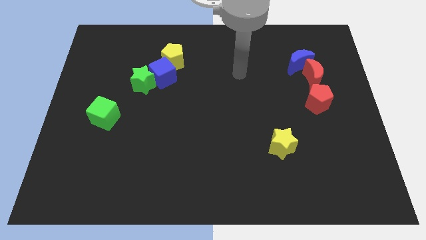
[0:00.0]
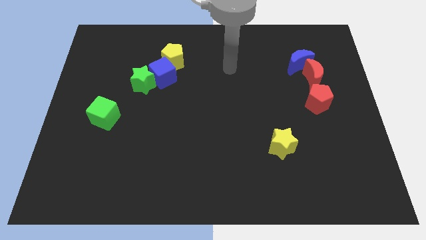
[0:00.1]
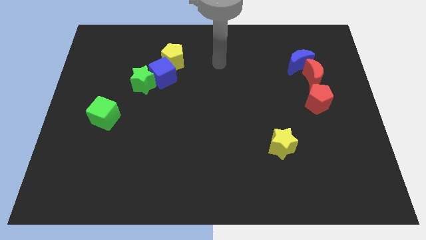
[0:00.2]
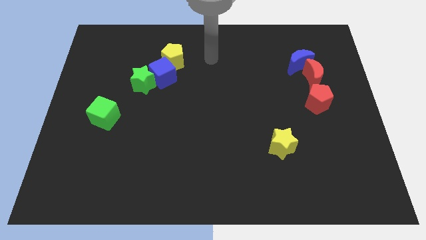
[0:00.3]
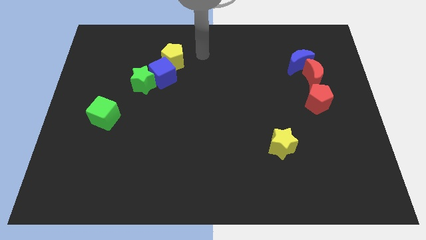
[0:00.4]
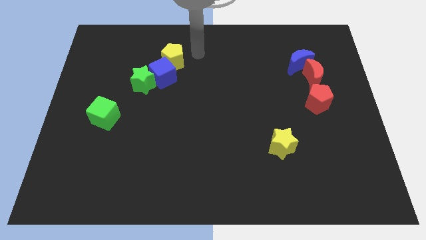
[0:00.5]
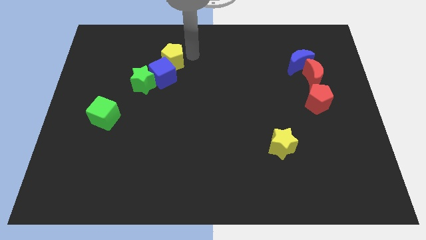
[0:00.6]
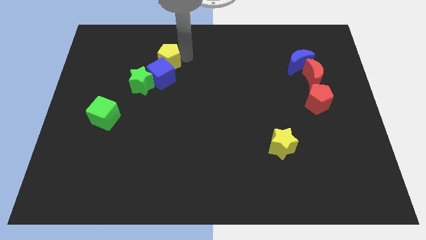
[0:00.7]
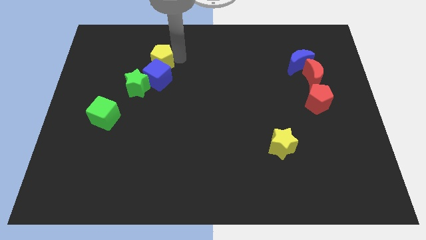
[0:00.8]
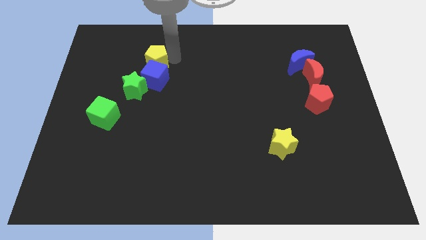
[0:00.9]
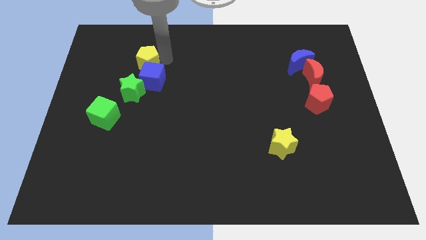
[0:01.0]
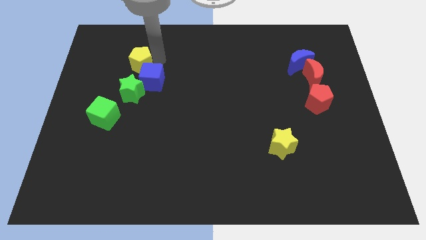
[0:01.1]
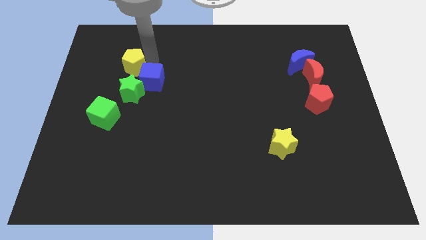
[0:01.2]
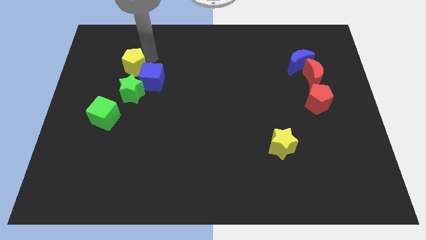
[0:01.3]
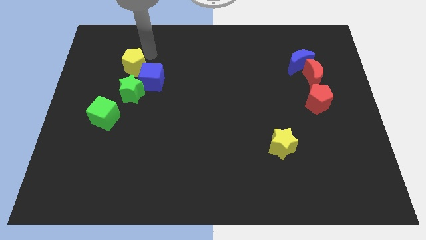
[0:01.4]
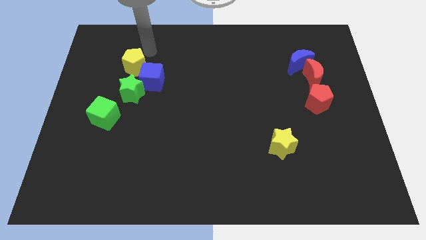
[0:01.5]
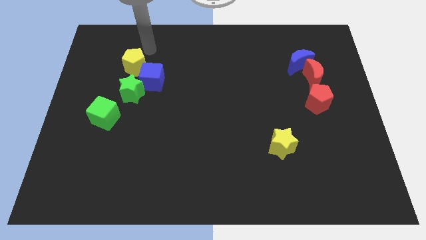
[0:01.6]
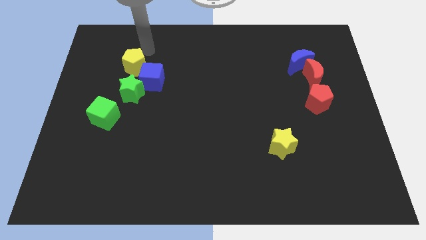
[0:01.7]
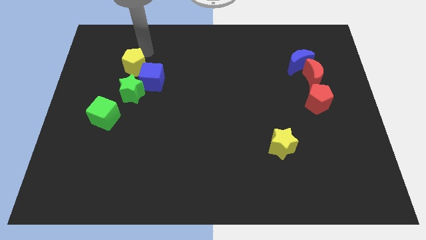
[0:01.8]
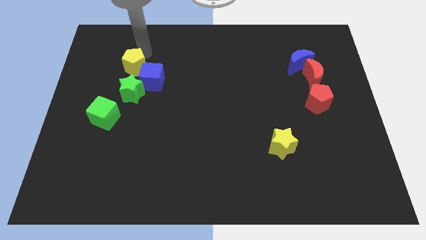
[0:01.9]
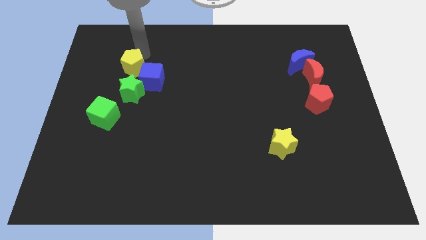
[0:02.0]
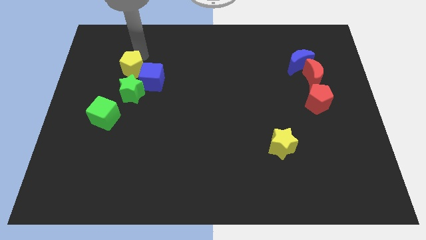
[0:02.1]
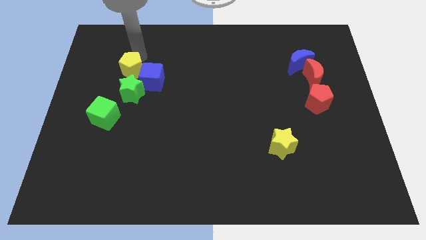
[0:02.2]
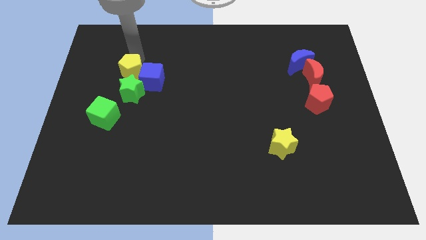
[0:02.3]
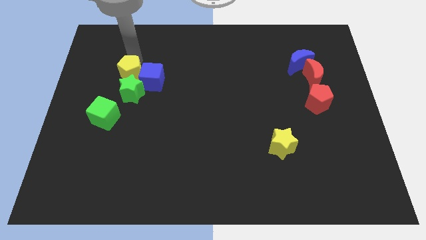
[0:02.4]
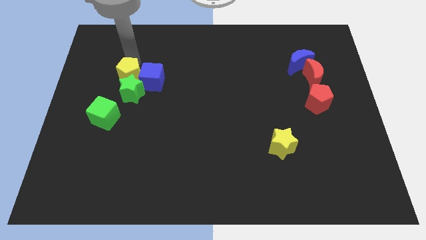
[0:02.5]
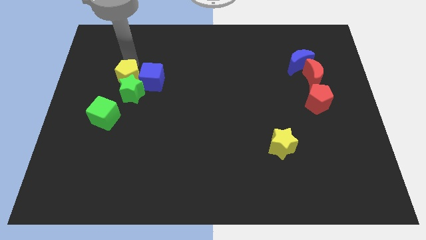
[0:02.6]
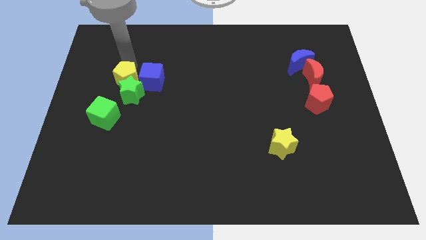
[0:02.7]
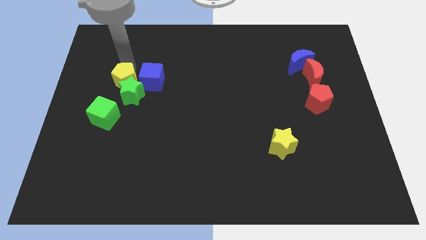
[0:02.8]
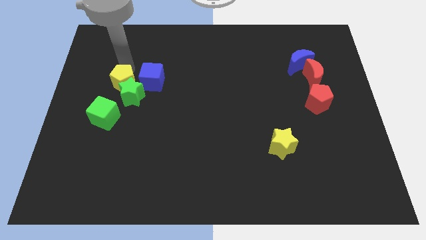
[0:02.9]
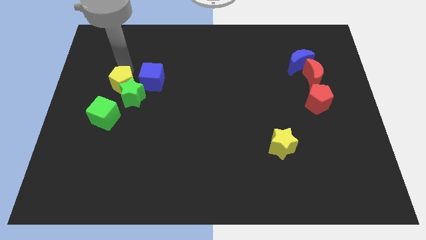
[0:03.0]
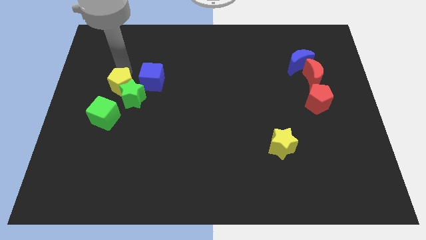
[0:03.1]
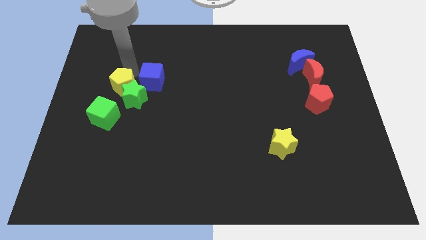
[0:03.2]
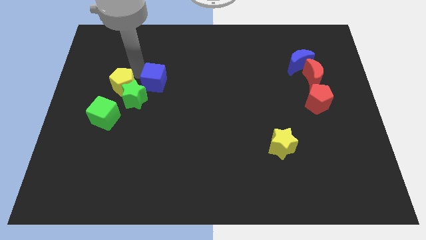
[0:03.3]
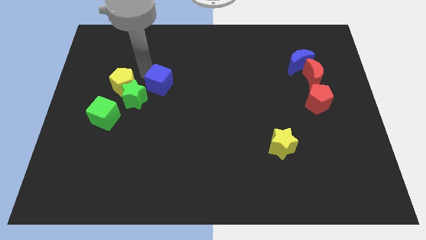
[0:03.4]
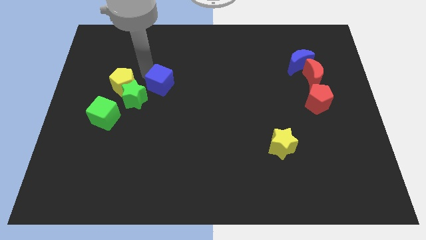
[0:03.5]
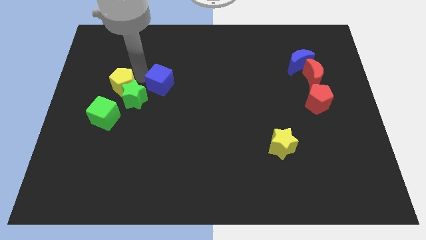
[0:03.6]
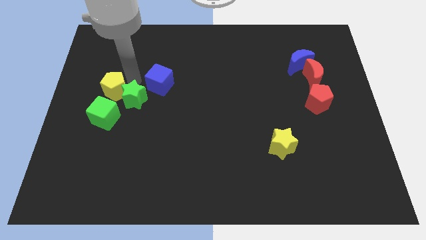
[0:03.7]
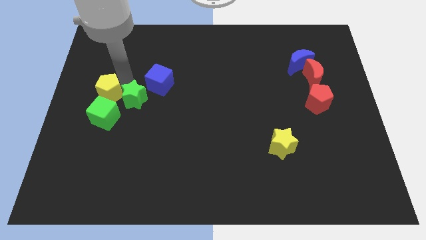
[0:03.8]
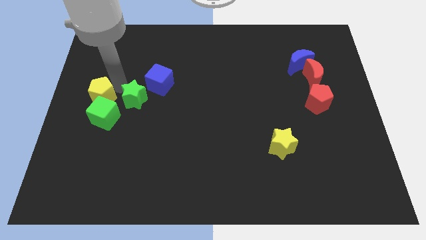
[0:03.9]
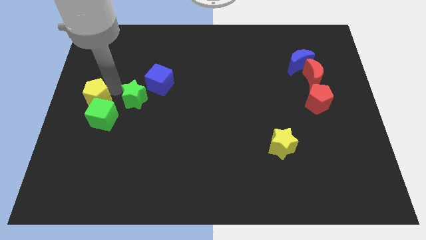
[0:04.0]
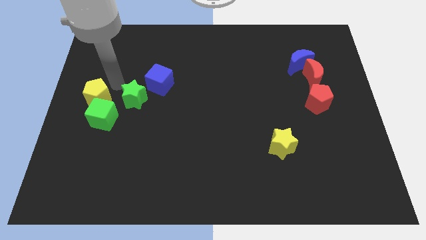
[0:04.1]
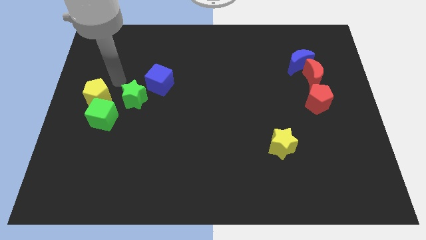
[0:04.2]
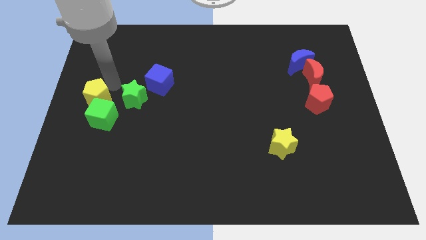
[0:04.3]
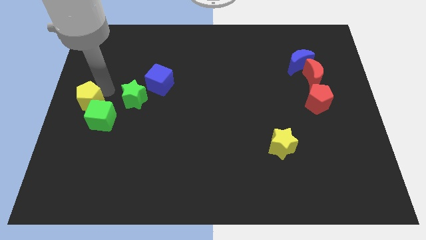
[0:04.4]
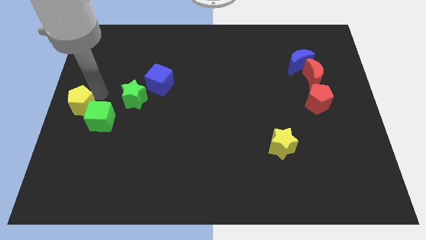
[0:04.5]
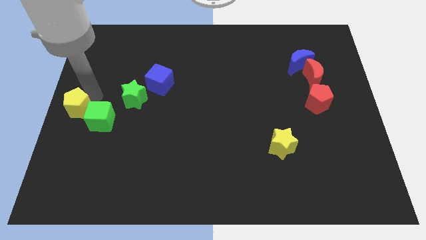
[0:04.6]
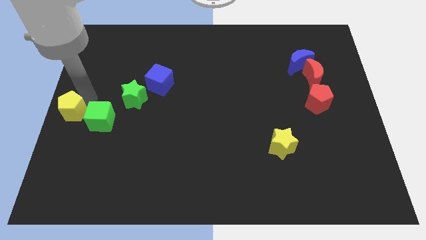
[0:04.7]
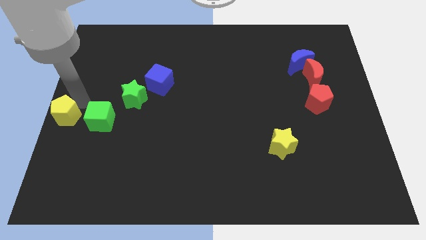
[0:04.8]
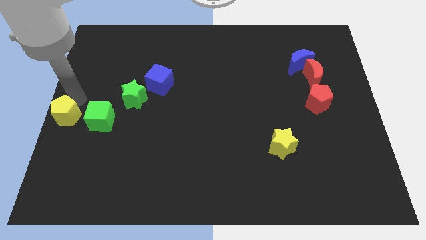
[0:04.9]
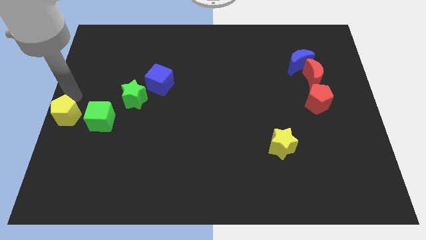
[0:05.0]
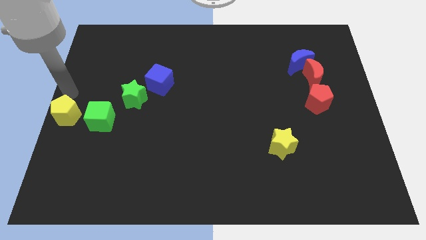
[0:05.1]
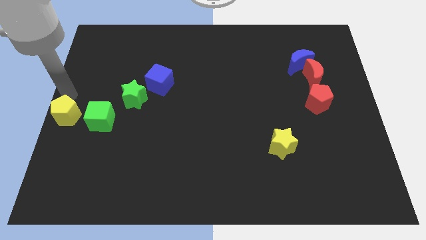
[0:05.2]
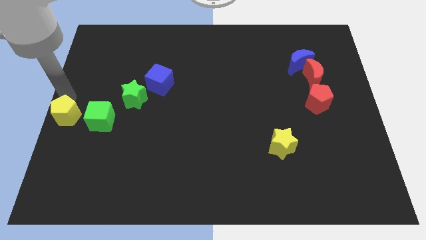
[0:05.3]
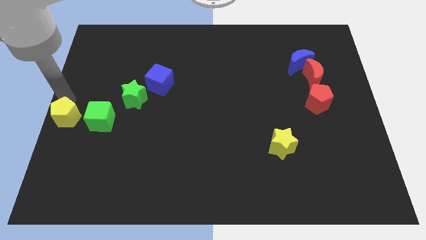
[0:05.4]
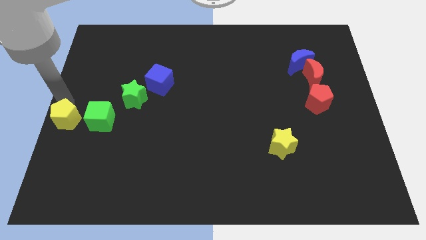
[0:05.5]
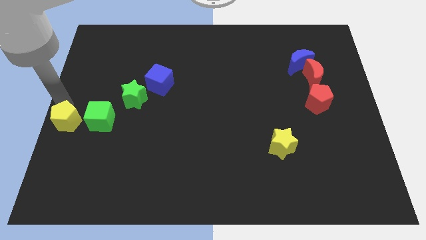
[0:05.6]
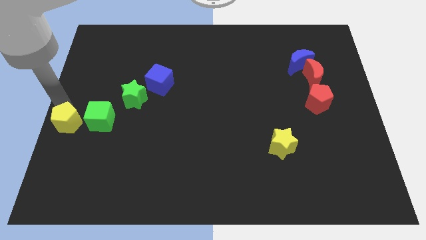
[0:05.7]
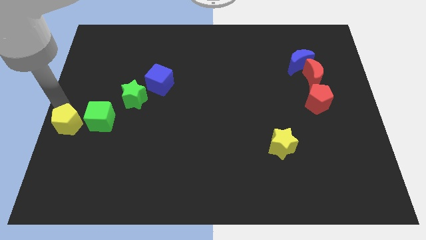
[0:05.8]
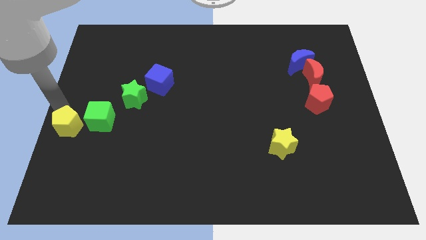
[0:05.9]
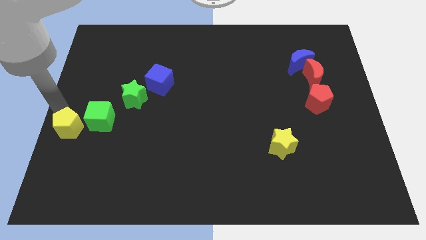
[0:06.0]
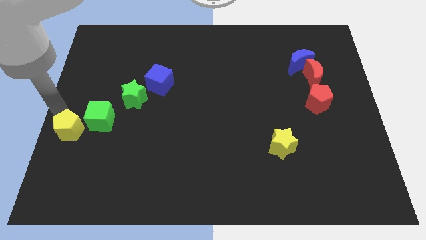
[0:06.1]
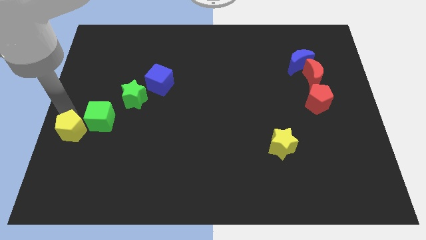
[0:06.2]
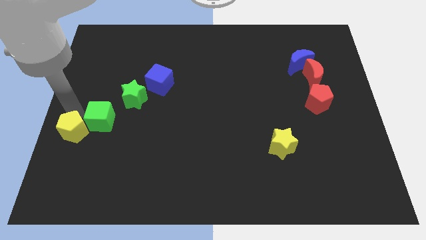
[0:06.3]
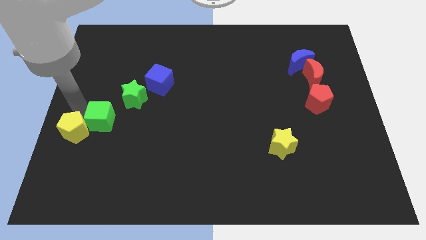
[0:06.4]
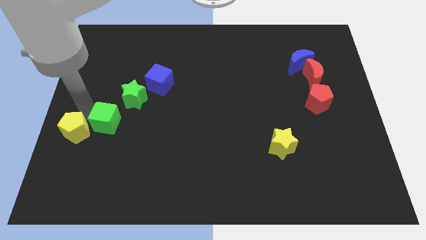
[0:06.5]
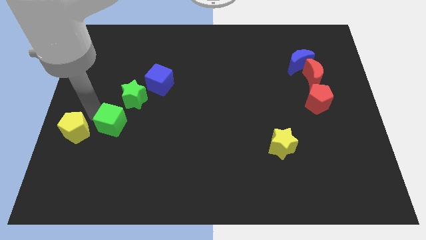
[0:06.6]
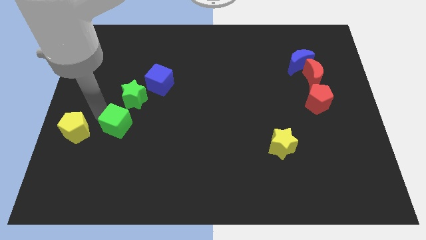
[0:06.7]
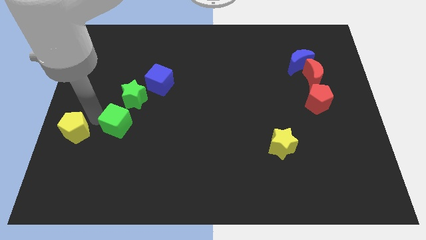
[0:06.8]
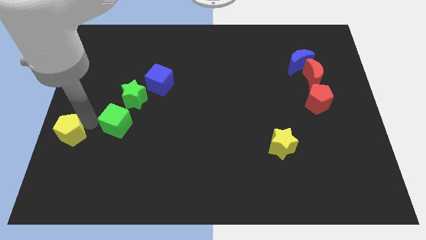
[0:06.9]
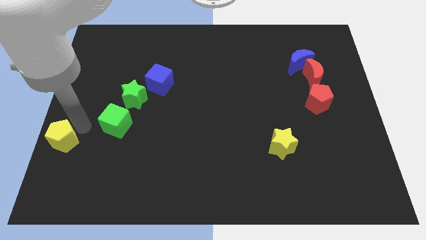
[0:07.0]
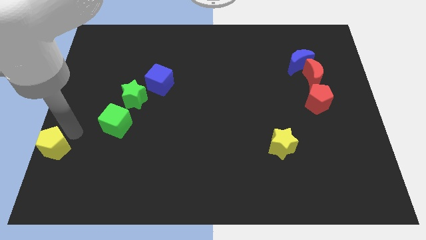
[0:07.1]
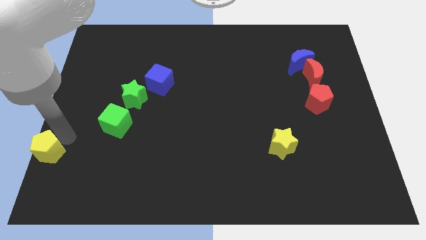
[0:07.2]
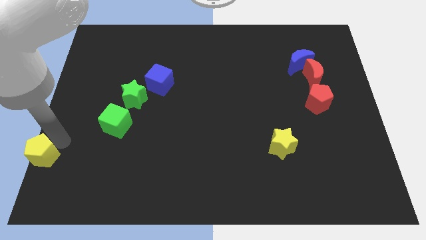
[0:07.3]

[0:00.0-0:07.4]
move the yellow pentagon to the lower left corner
